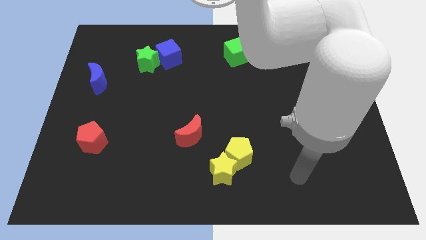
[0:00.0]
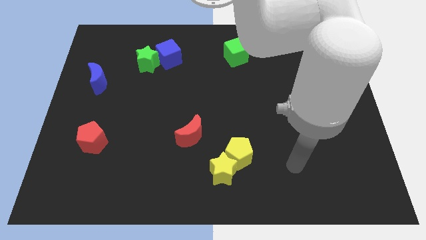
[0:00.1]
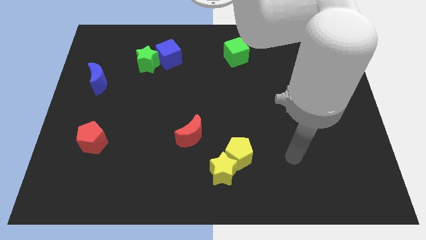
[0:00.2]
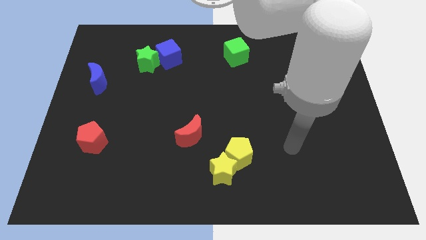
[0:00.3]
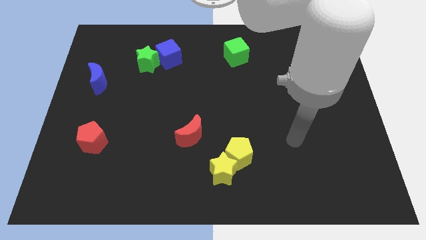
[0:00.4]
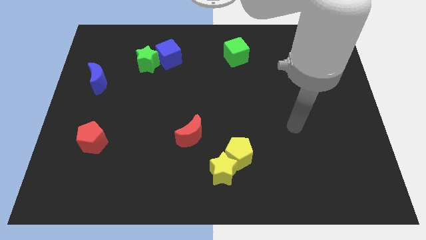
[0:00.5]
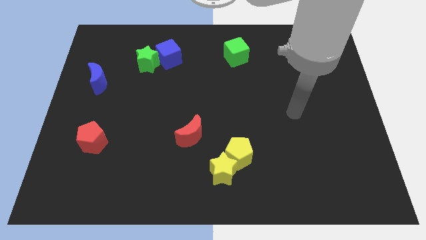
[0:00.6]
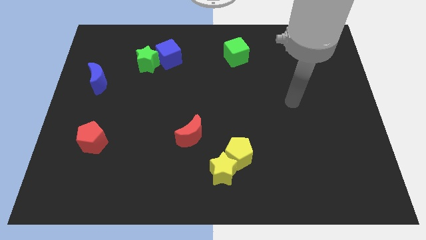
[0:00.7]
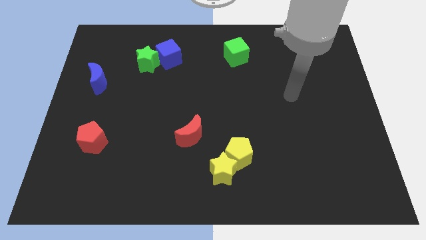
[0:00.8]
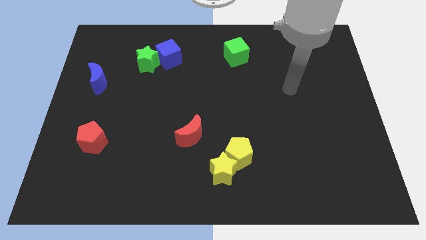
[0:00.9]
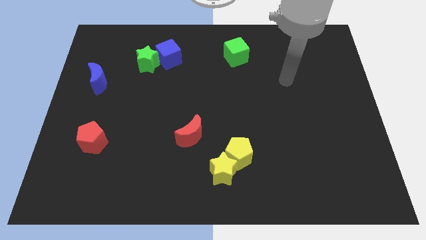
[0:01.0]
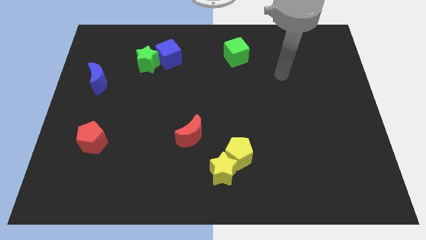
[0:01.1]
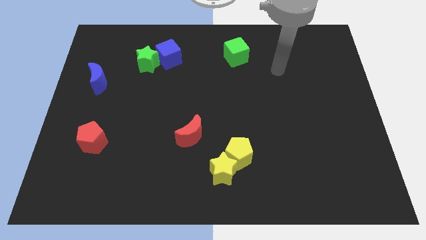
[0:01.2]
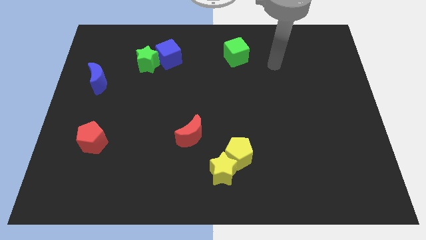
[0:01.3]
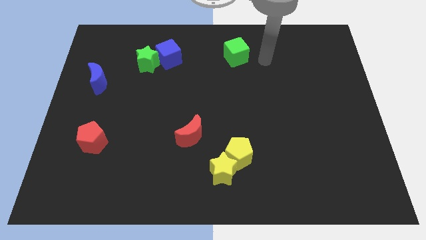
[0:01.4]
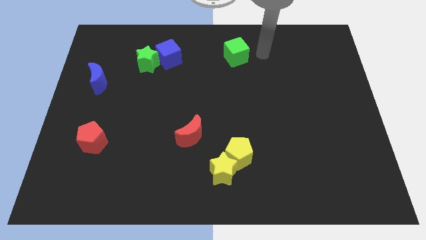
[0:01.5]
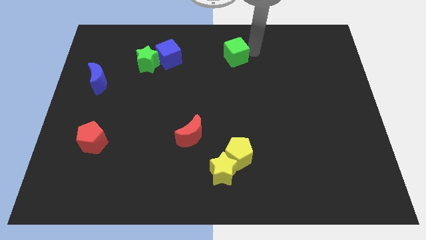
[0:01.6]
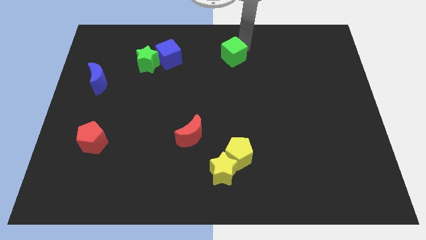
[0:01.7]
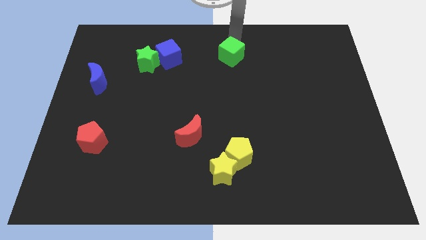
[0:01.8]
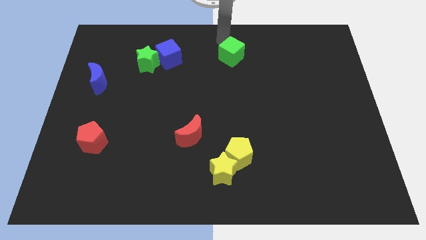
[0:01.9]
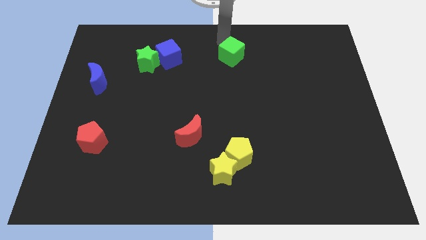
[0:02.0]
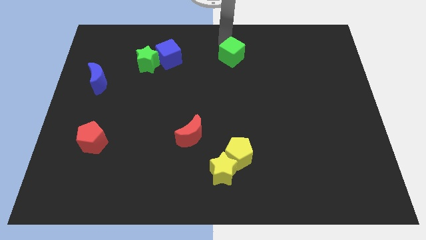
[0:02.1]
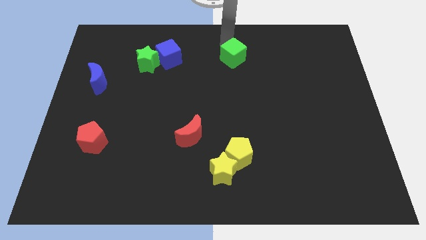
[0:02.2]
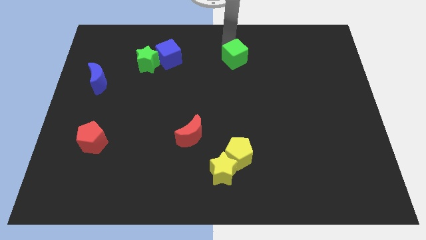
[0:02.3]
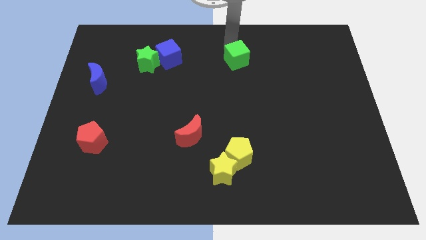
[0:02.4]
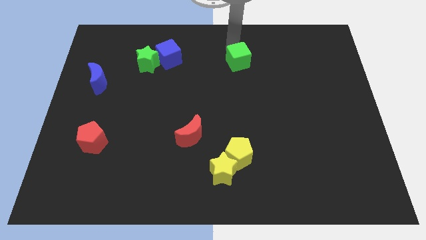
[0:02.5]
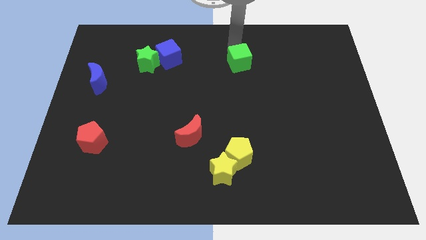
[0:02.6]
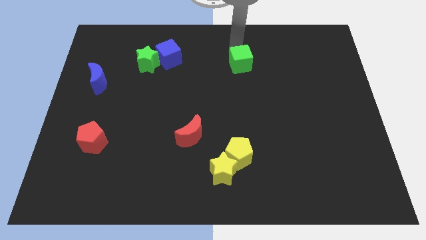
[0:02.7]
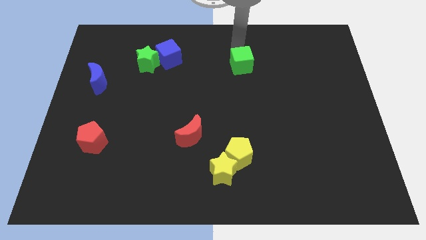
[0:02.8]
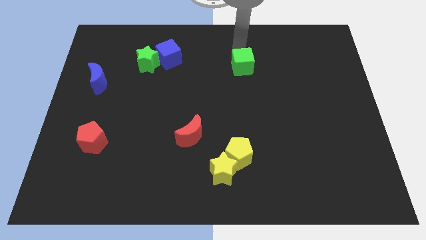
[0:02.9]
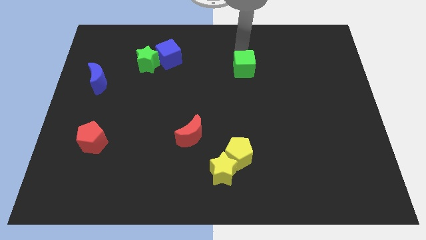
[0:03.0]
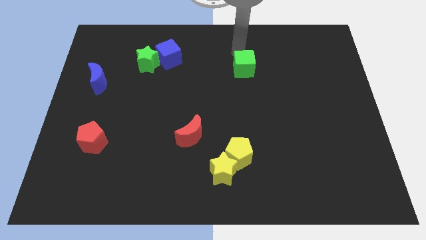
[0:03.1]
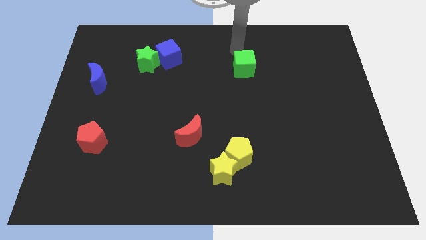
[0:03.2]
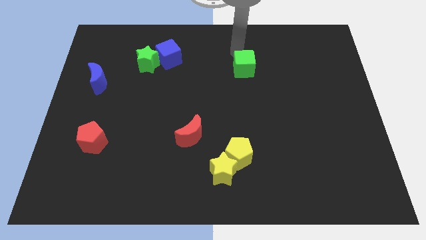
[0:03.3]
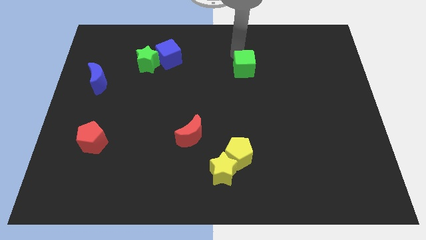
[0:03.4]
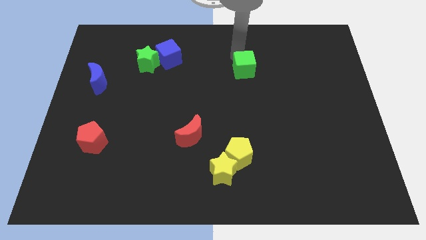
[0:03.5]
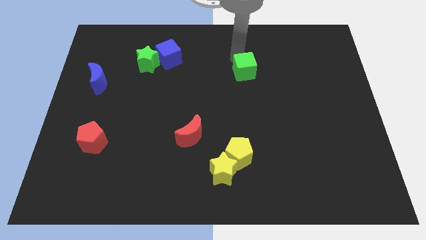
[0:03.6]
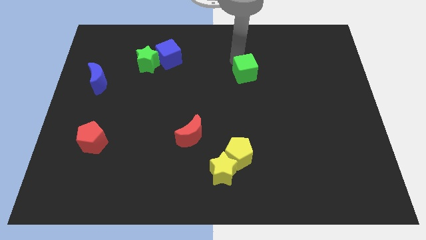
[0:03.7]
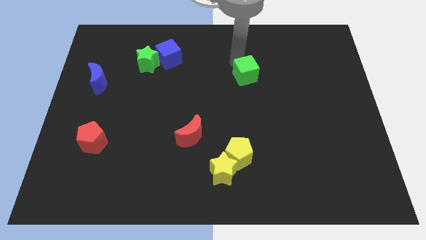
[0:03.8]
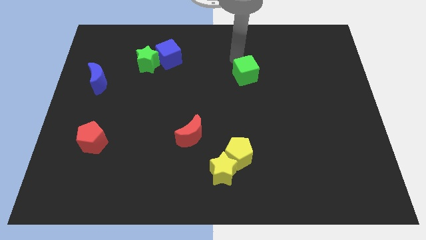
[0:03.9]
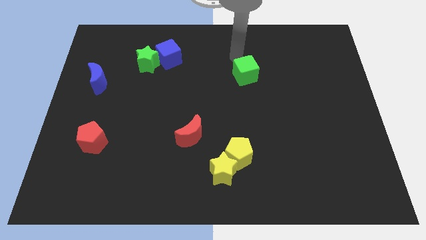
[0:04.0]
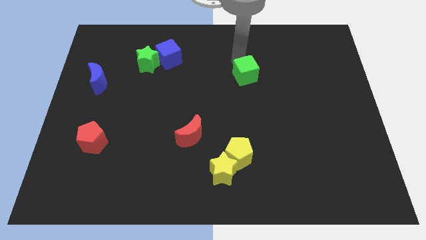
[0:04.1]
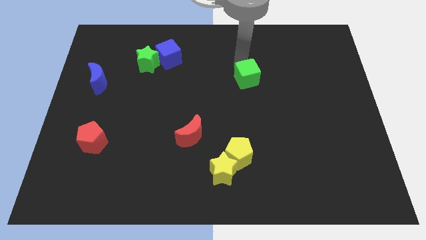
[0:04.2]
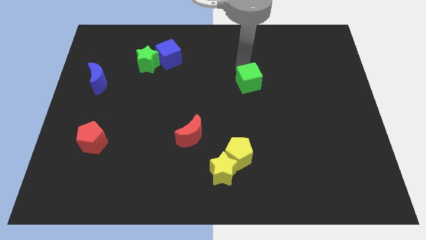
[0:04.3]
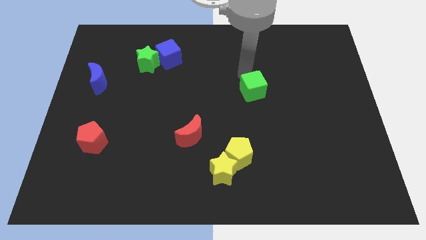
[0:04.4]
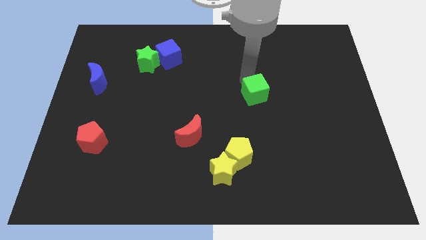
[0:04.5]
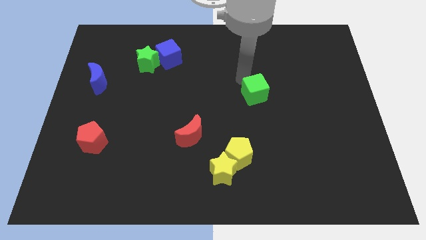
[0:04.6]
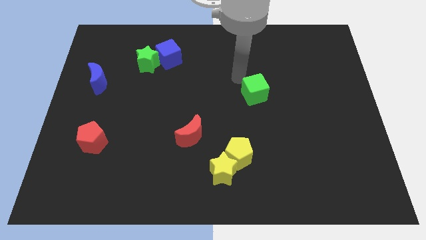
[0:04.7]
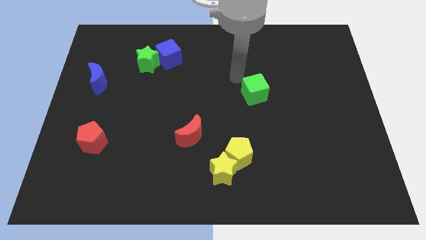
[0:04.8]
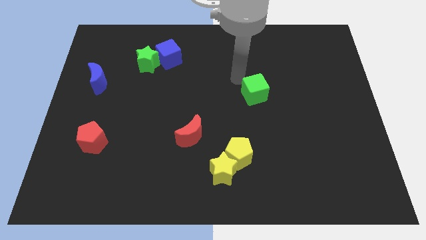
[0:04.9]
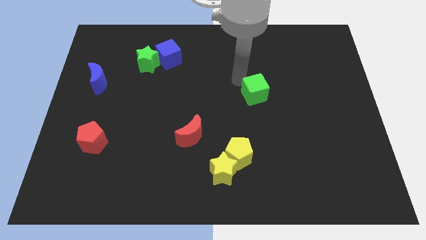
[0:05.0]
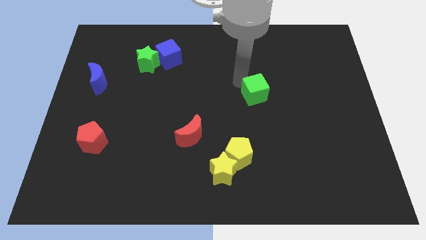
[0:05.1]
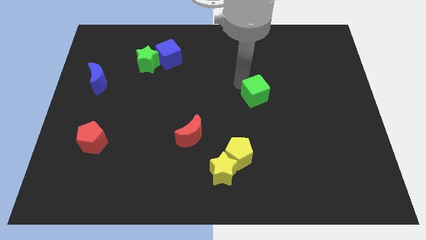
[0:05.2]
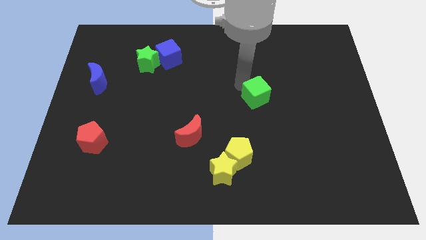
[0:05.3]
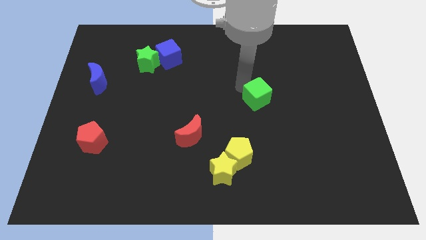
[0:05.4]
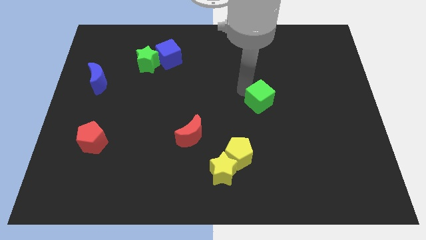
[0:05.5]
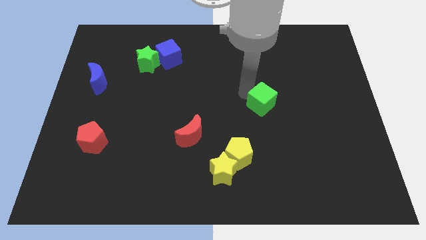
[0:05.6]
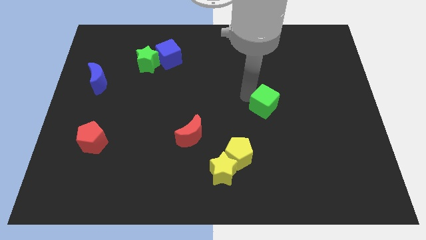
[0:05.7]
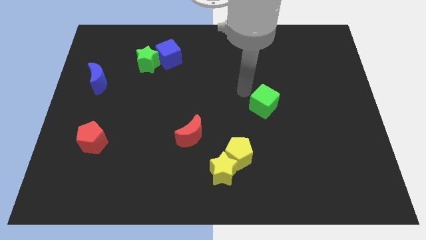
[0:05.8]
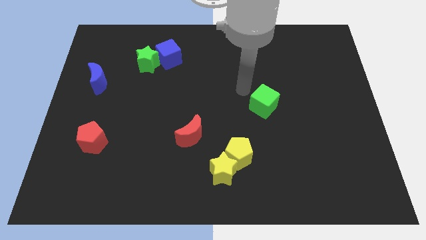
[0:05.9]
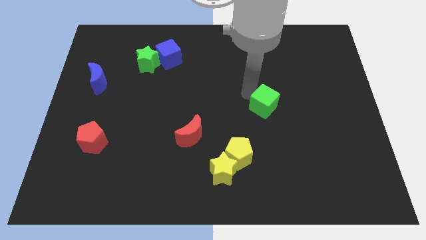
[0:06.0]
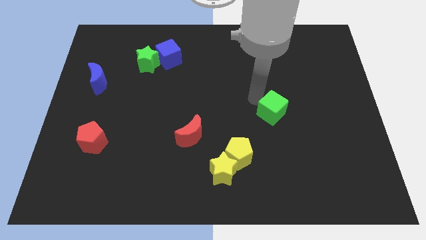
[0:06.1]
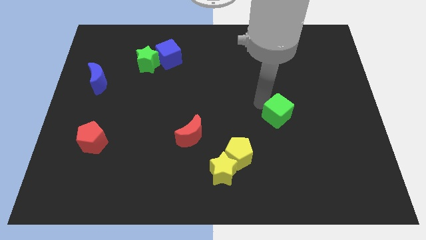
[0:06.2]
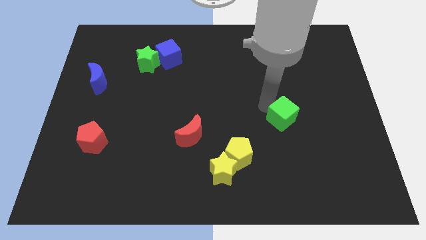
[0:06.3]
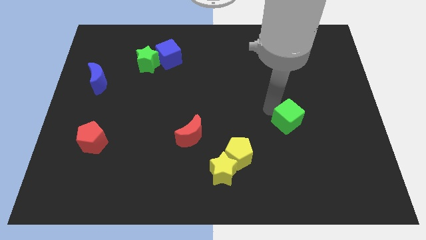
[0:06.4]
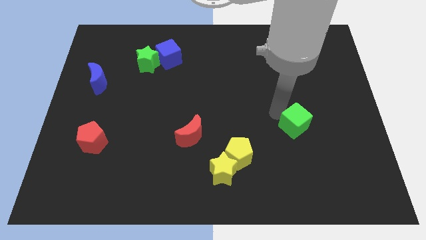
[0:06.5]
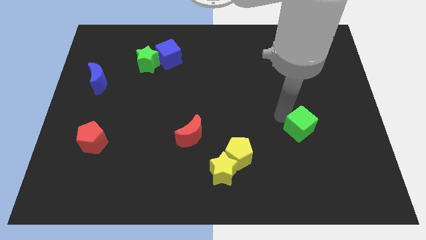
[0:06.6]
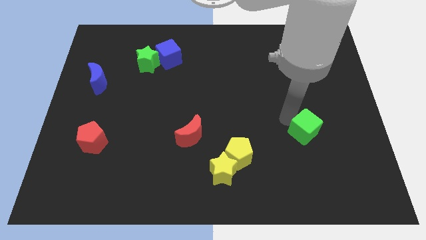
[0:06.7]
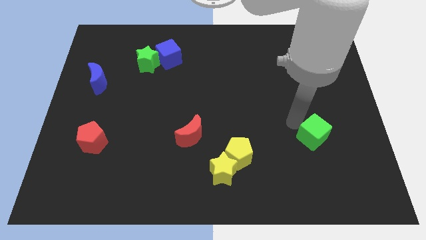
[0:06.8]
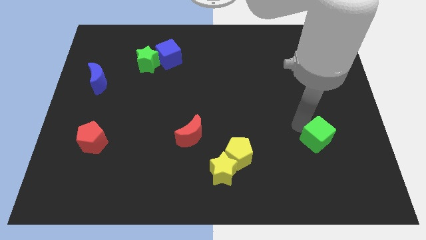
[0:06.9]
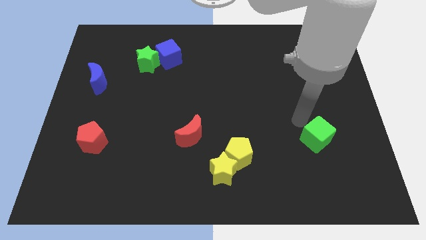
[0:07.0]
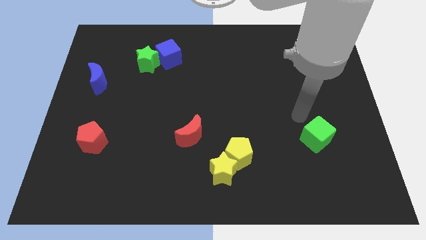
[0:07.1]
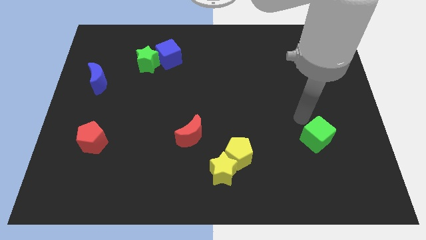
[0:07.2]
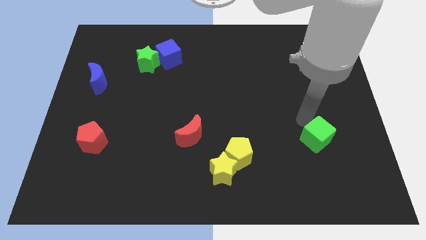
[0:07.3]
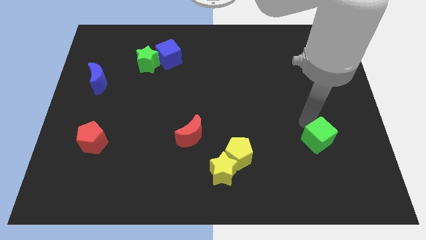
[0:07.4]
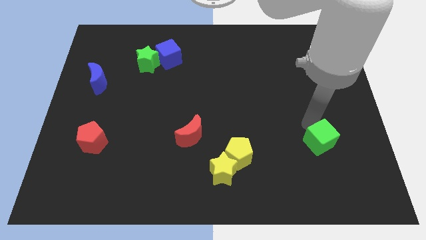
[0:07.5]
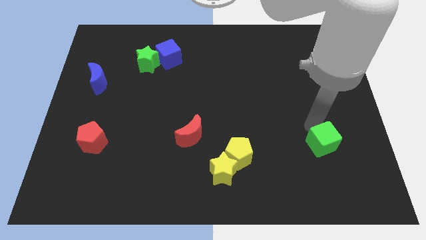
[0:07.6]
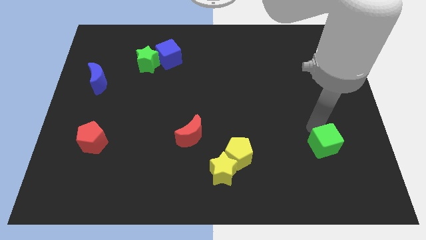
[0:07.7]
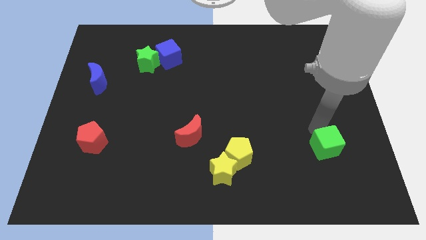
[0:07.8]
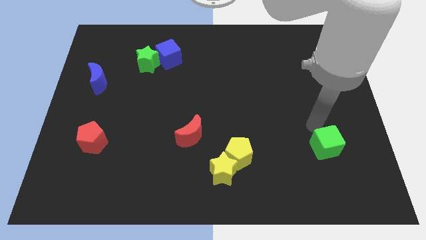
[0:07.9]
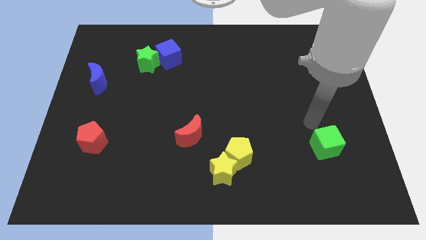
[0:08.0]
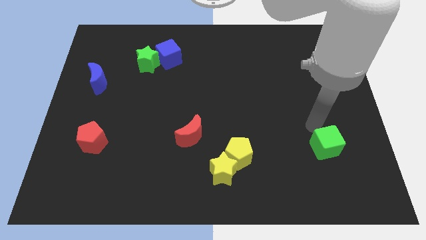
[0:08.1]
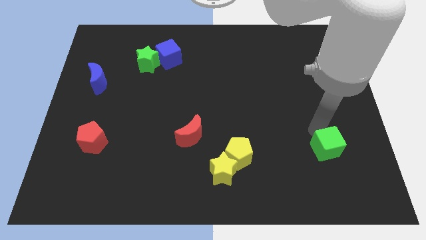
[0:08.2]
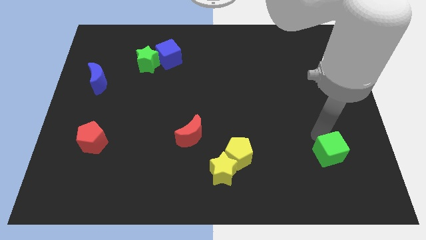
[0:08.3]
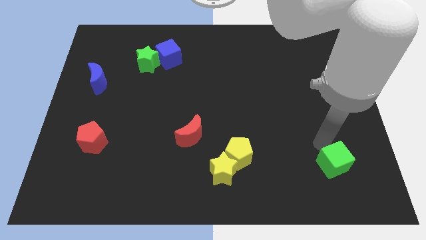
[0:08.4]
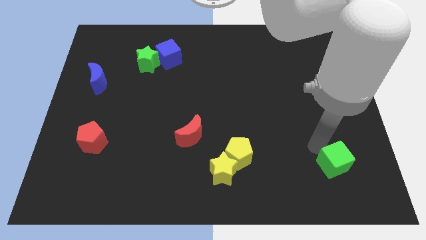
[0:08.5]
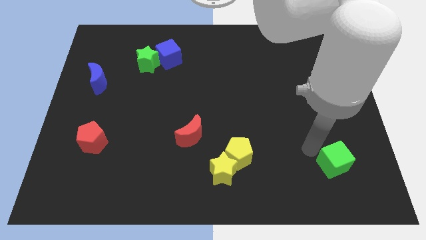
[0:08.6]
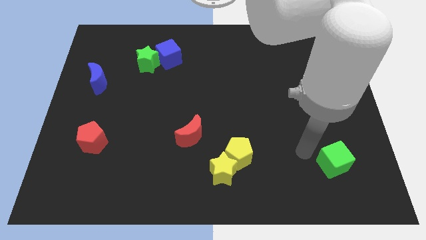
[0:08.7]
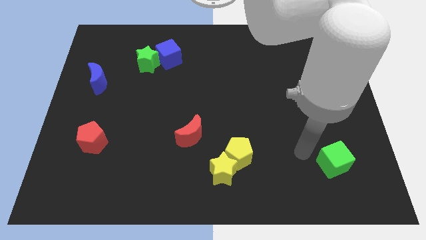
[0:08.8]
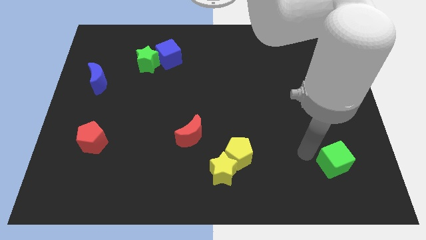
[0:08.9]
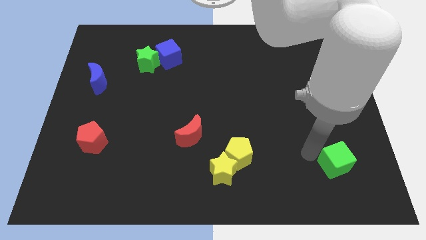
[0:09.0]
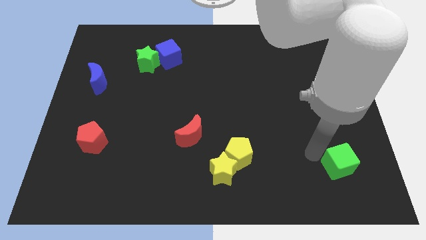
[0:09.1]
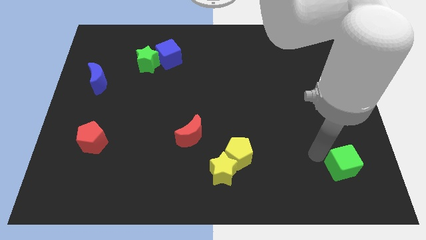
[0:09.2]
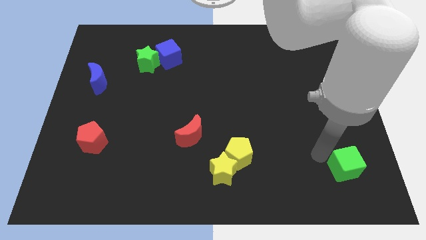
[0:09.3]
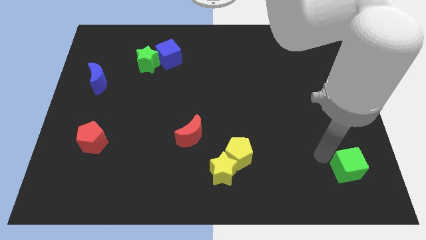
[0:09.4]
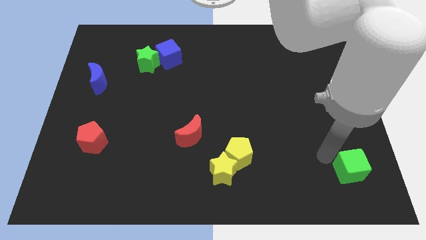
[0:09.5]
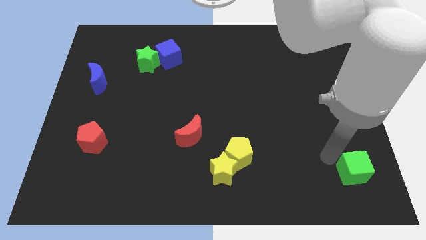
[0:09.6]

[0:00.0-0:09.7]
slide the green cube to the bottom right corner
